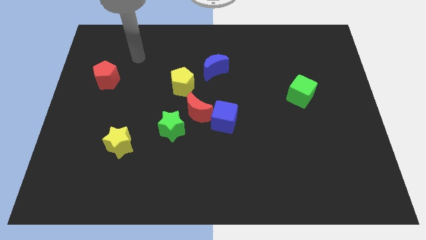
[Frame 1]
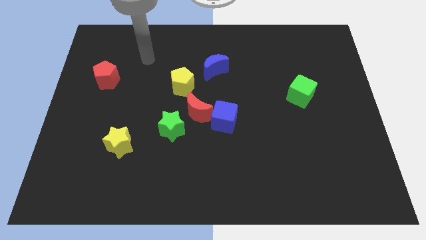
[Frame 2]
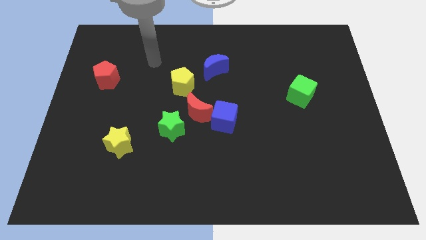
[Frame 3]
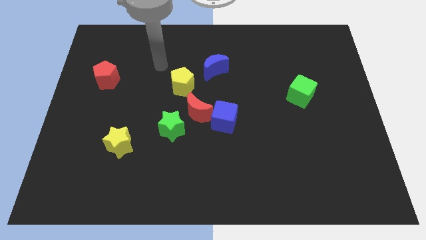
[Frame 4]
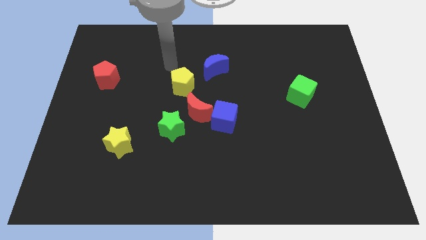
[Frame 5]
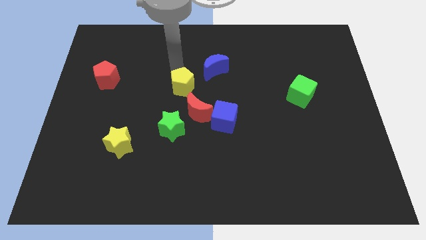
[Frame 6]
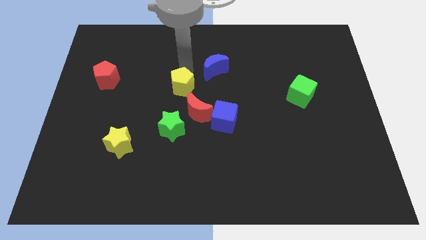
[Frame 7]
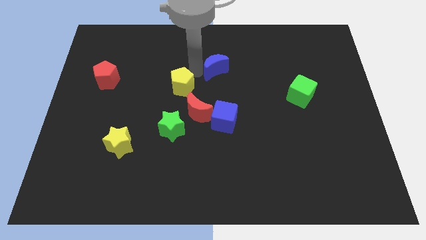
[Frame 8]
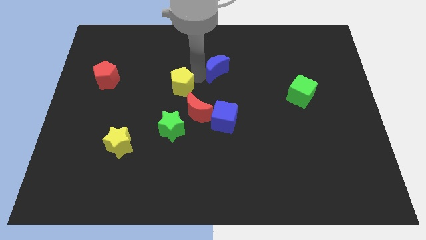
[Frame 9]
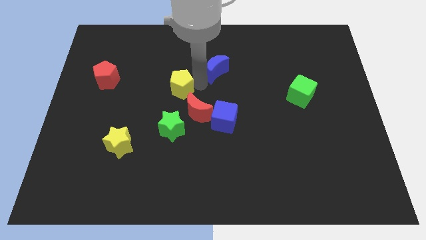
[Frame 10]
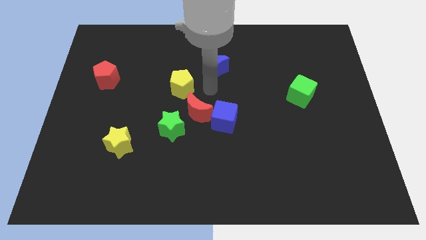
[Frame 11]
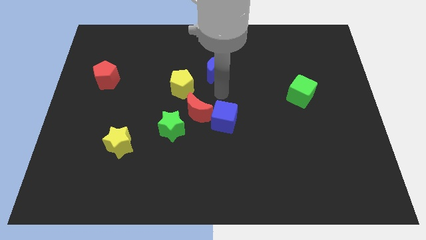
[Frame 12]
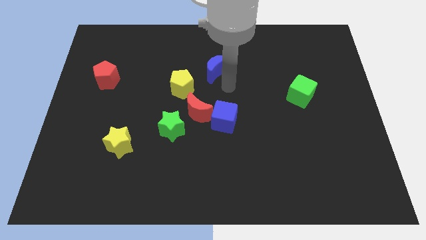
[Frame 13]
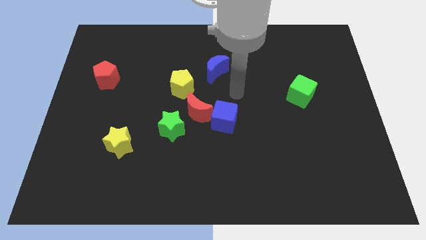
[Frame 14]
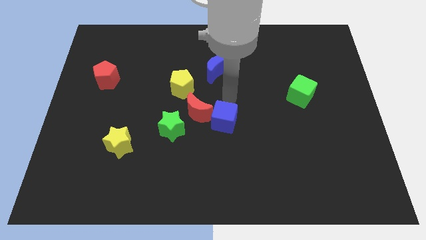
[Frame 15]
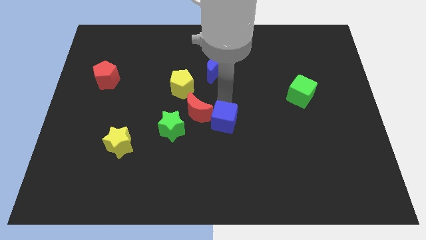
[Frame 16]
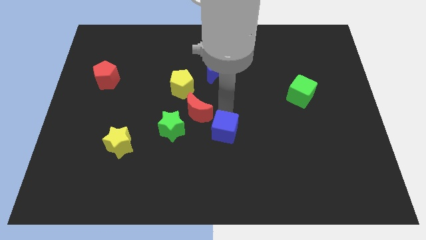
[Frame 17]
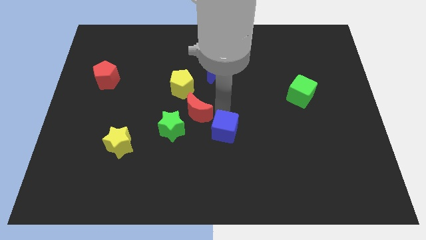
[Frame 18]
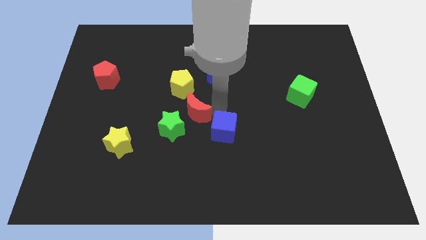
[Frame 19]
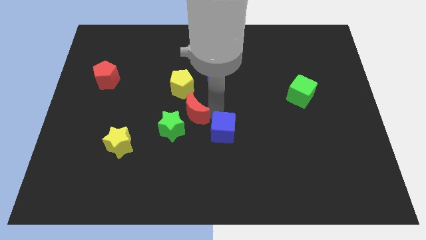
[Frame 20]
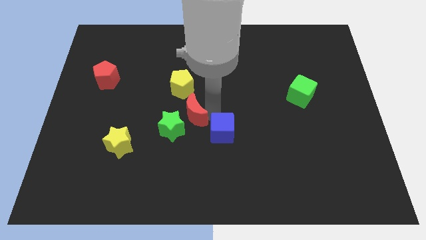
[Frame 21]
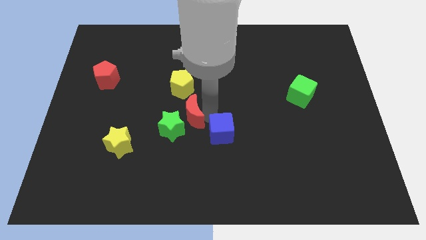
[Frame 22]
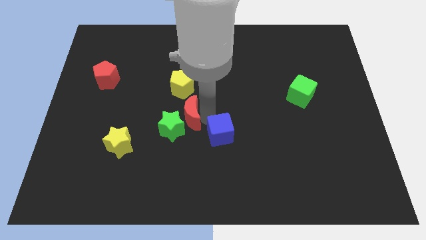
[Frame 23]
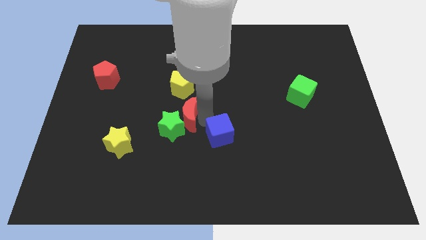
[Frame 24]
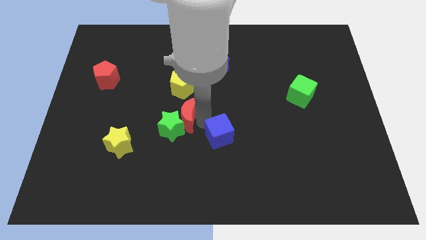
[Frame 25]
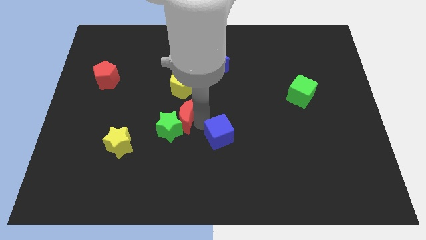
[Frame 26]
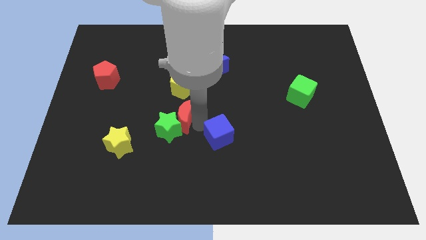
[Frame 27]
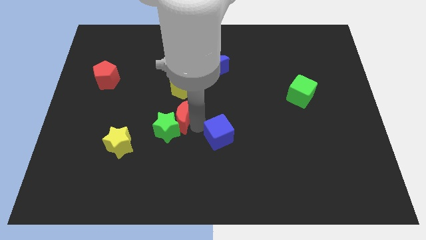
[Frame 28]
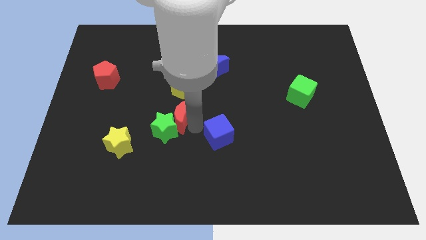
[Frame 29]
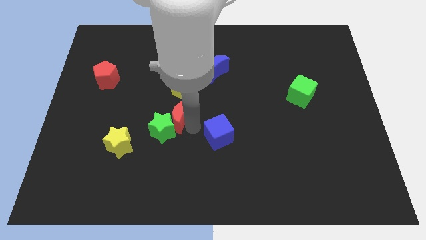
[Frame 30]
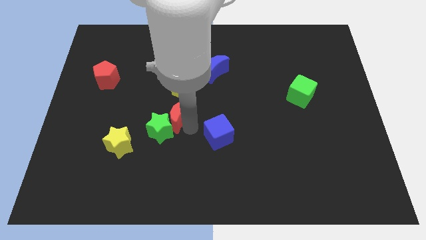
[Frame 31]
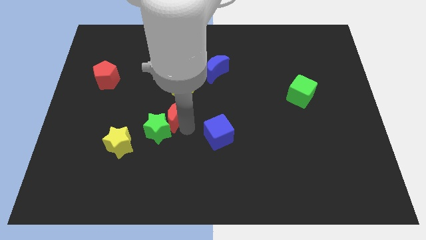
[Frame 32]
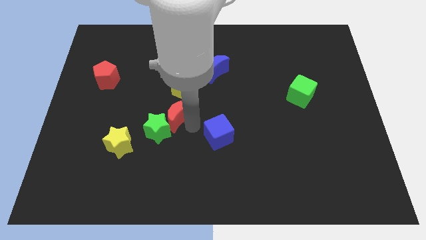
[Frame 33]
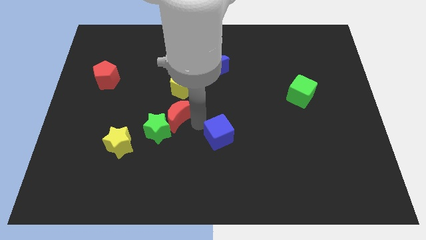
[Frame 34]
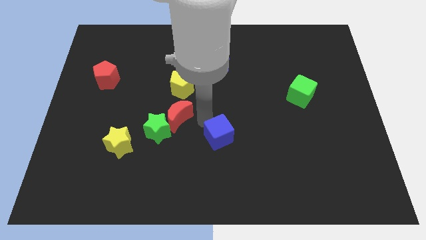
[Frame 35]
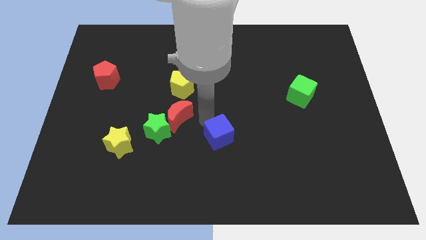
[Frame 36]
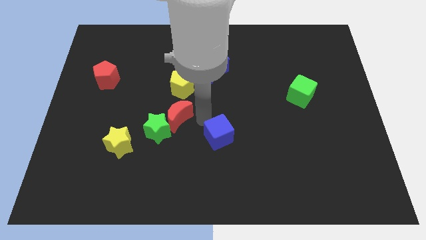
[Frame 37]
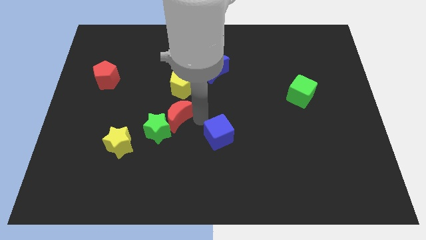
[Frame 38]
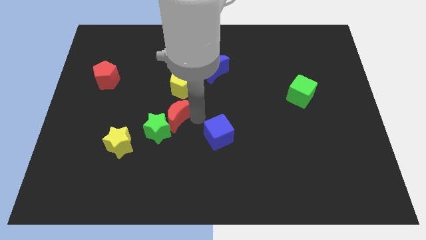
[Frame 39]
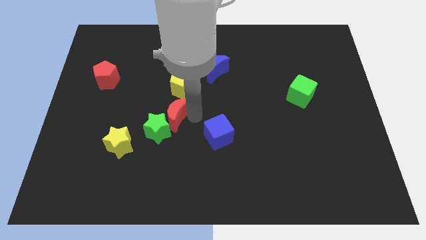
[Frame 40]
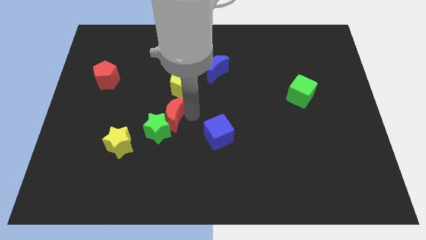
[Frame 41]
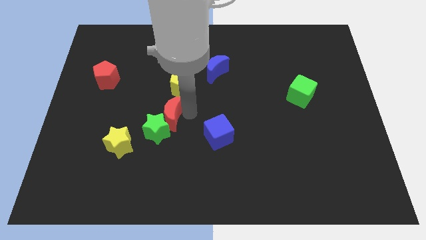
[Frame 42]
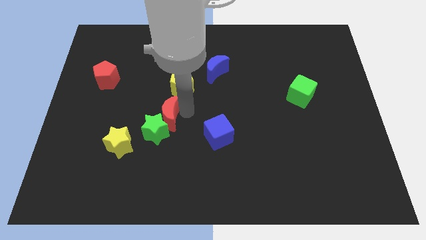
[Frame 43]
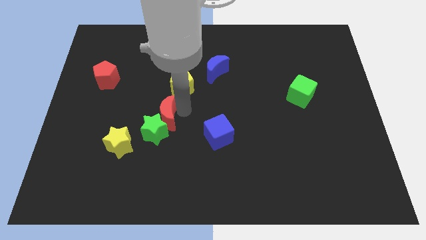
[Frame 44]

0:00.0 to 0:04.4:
push the red moon to the left a little

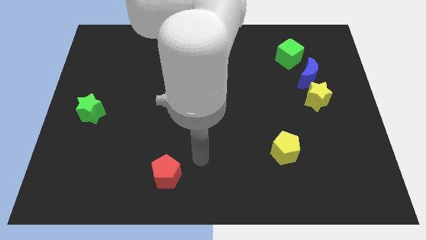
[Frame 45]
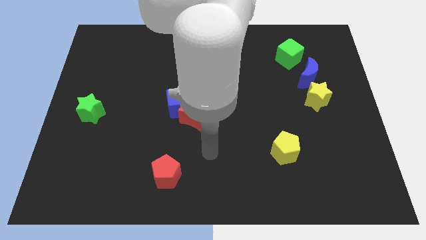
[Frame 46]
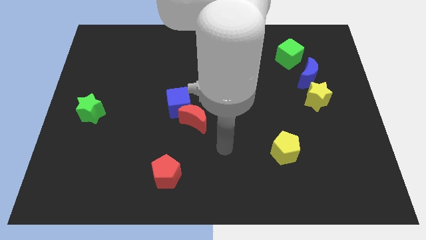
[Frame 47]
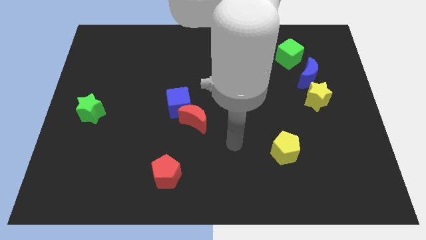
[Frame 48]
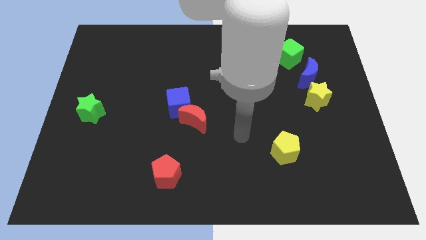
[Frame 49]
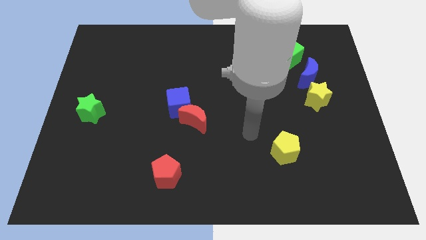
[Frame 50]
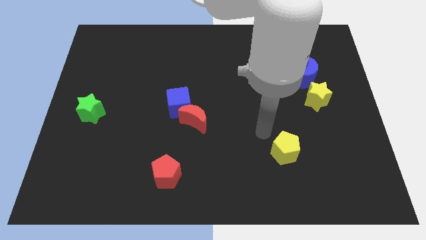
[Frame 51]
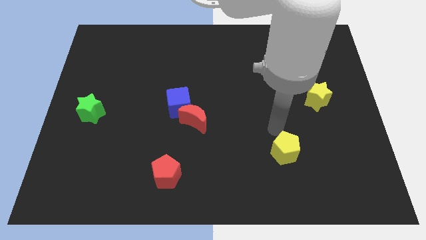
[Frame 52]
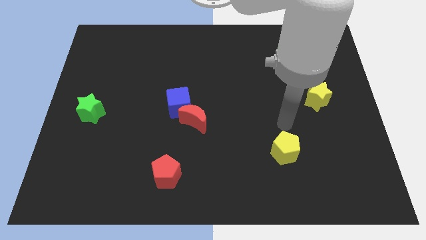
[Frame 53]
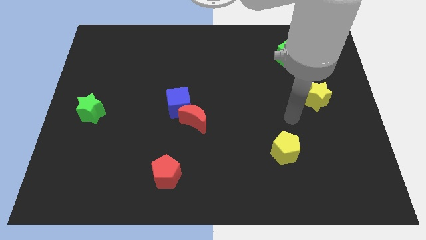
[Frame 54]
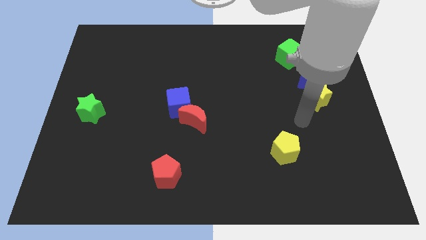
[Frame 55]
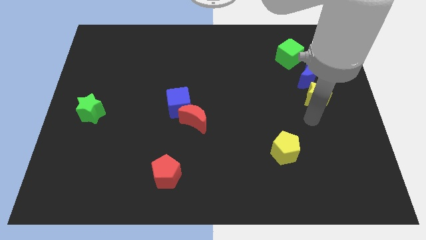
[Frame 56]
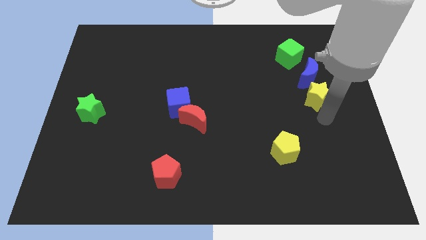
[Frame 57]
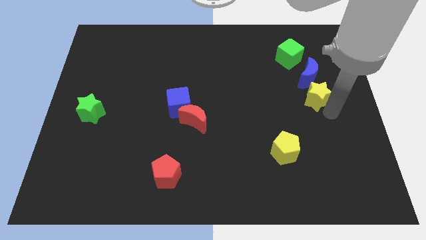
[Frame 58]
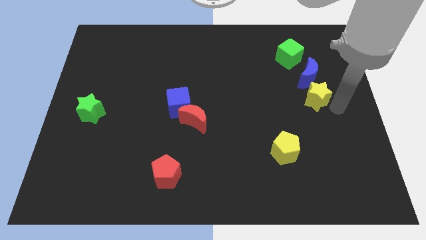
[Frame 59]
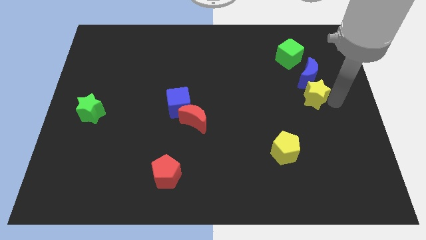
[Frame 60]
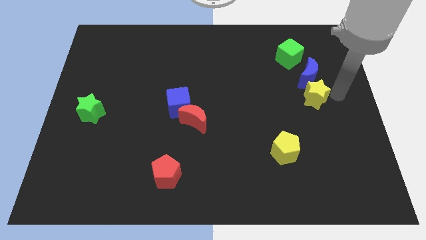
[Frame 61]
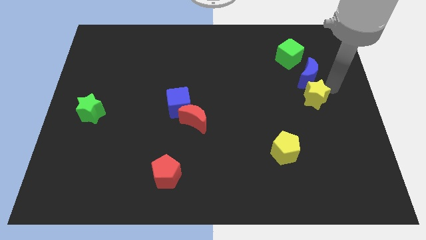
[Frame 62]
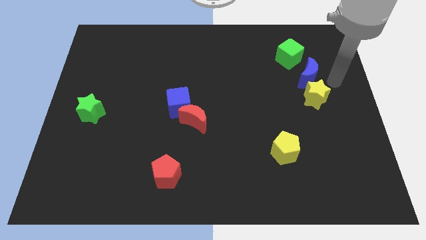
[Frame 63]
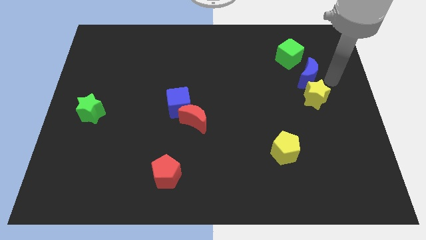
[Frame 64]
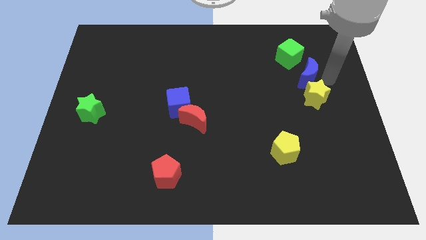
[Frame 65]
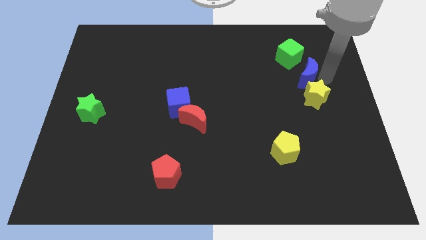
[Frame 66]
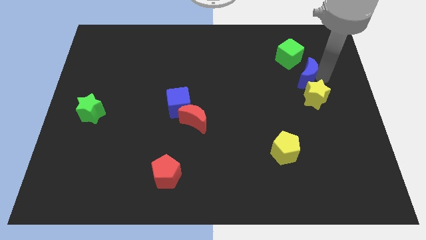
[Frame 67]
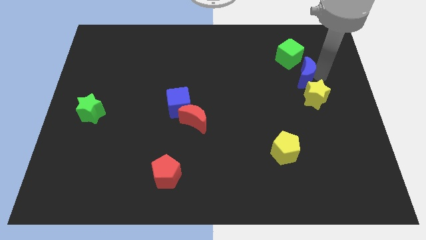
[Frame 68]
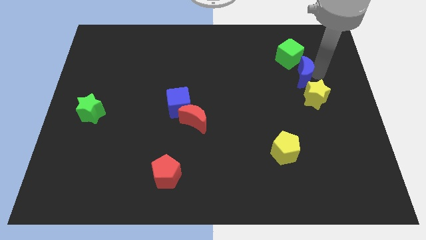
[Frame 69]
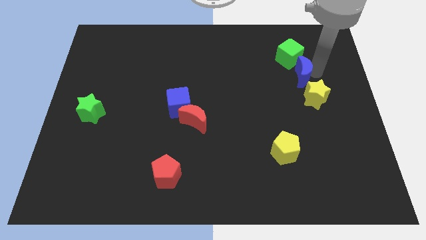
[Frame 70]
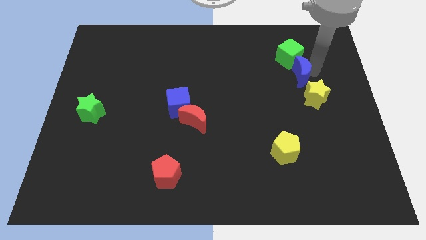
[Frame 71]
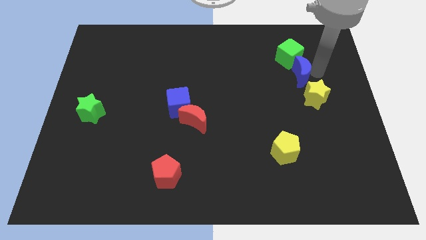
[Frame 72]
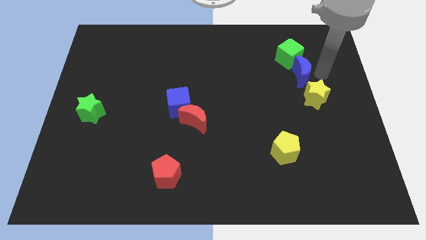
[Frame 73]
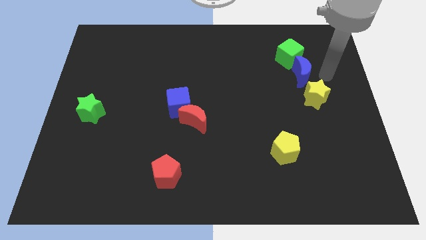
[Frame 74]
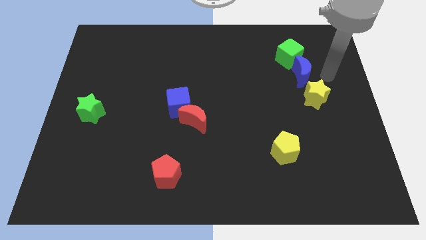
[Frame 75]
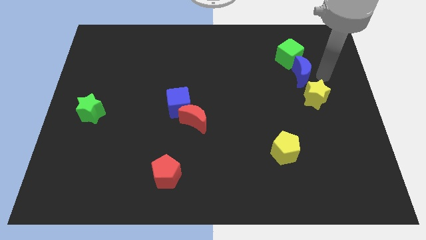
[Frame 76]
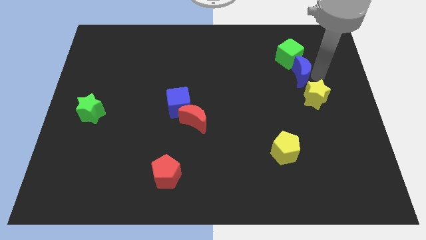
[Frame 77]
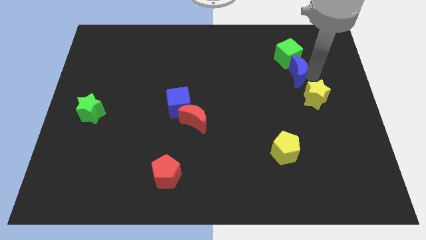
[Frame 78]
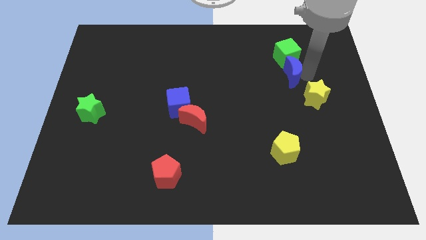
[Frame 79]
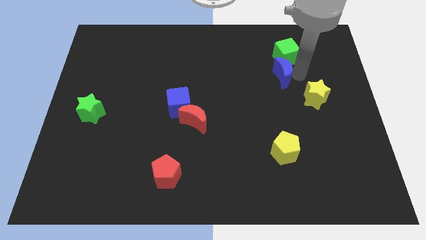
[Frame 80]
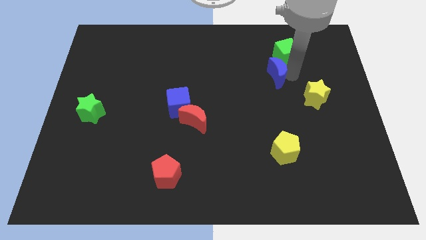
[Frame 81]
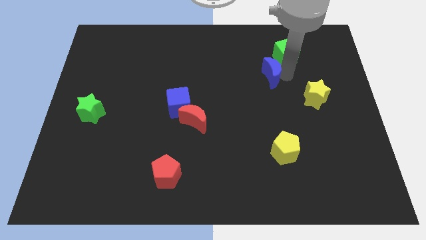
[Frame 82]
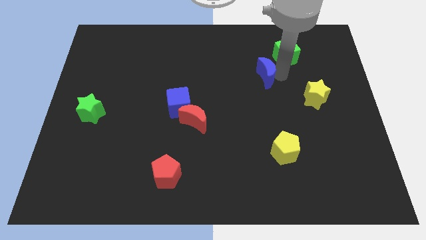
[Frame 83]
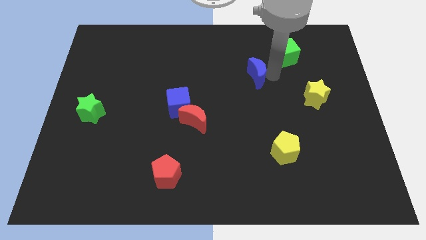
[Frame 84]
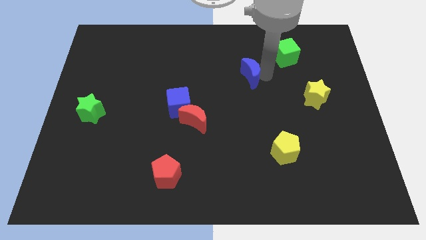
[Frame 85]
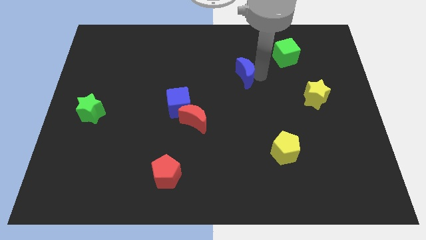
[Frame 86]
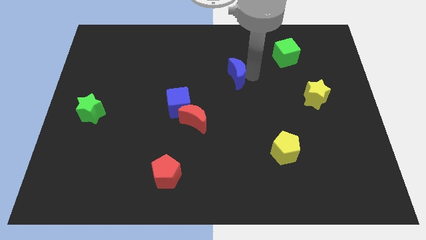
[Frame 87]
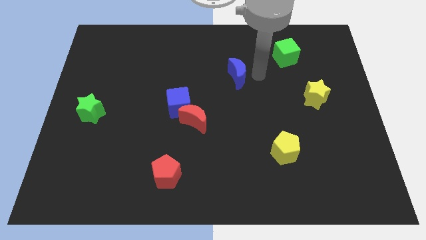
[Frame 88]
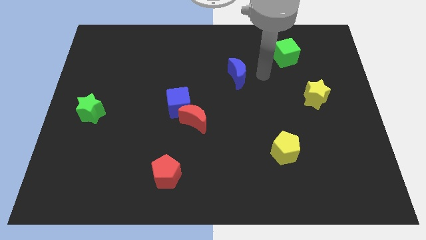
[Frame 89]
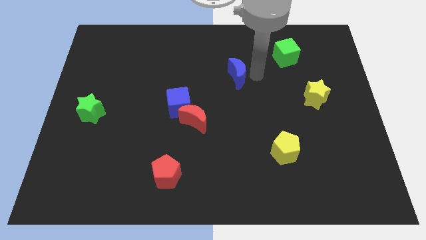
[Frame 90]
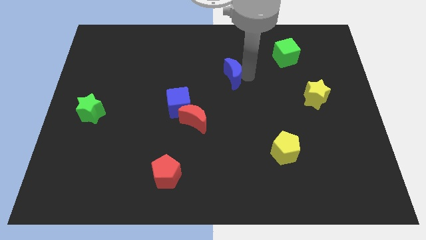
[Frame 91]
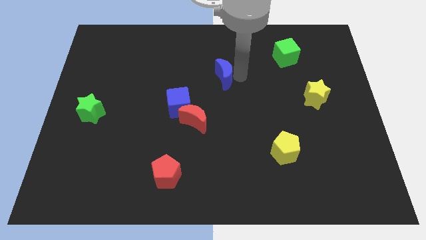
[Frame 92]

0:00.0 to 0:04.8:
move the blue moon to the left
